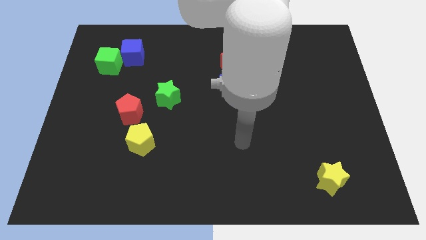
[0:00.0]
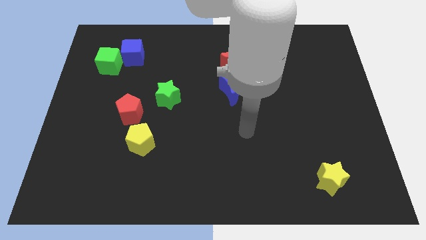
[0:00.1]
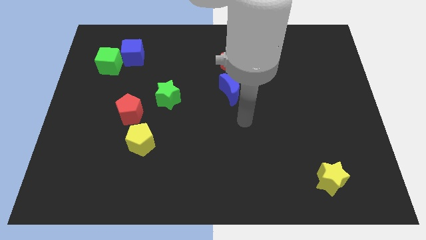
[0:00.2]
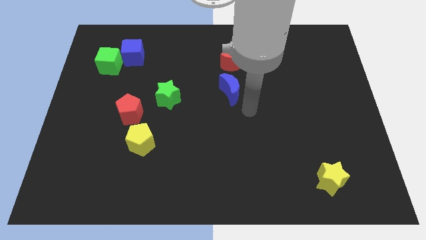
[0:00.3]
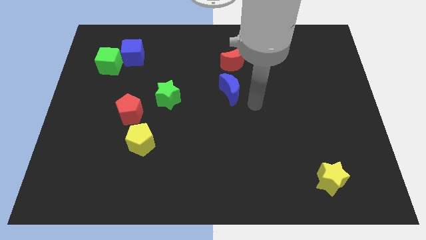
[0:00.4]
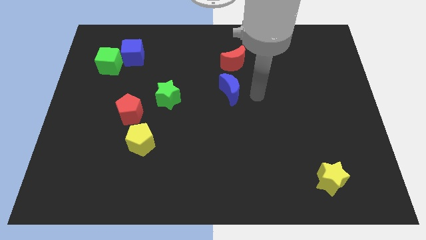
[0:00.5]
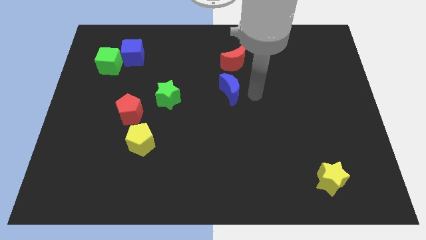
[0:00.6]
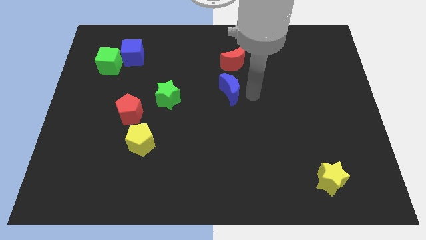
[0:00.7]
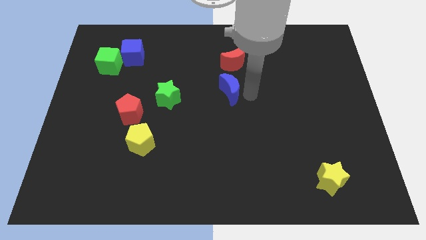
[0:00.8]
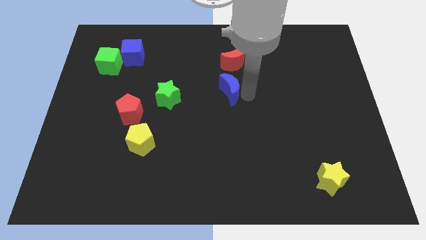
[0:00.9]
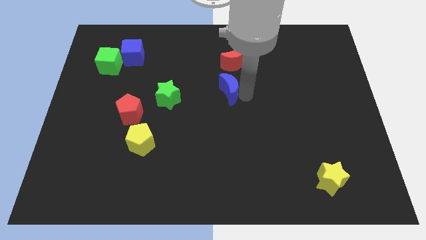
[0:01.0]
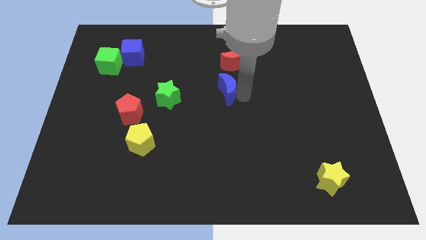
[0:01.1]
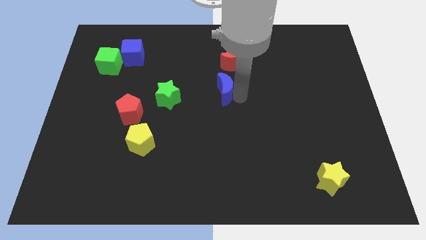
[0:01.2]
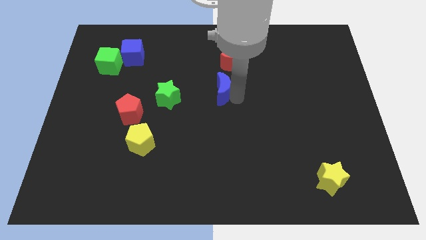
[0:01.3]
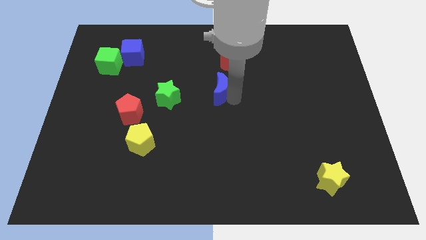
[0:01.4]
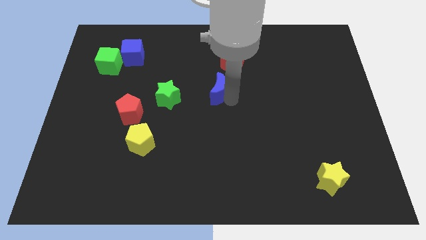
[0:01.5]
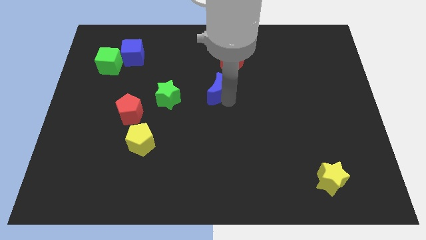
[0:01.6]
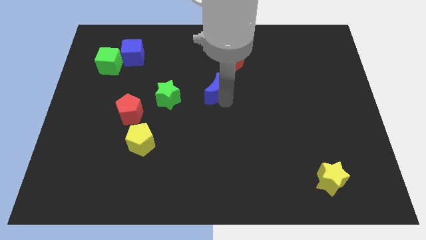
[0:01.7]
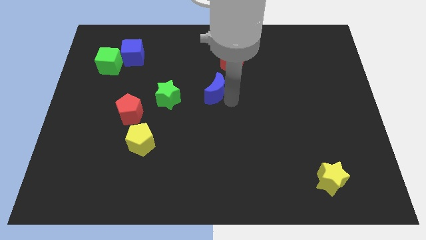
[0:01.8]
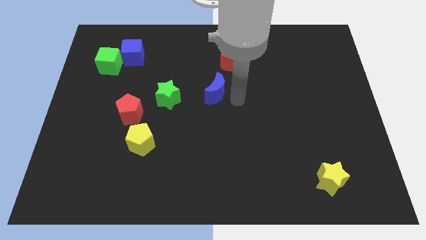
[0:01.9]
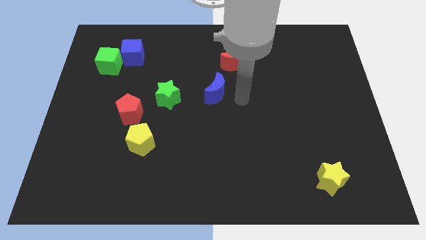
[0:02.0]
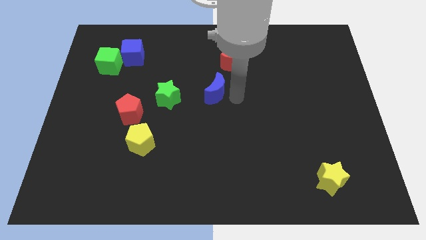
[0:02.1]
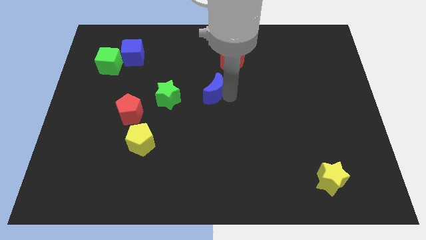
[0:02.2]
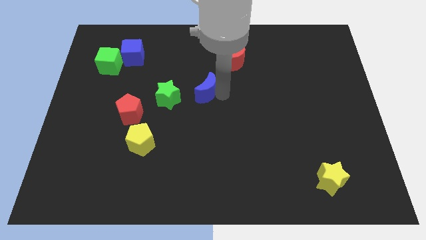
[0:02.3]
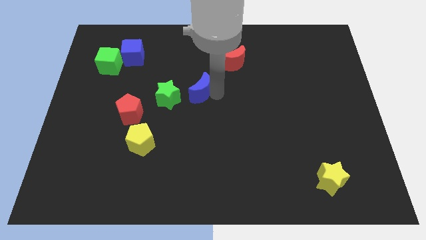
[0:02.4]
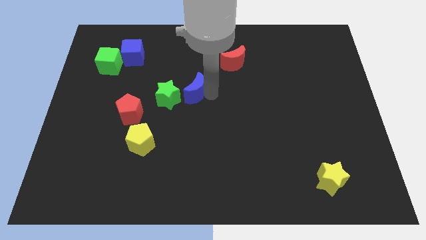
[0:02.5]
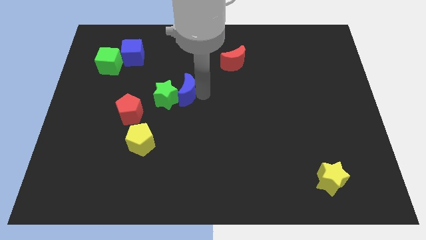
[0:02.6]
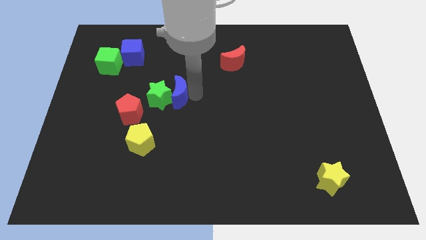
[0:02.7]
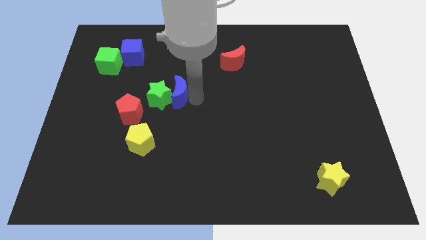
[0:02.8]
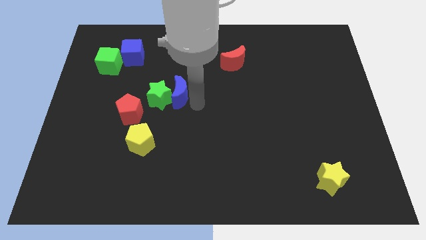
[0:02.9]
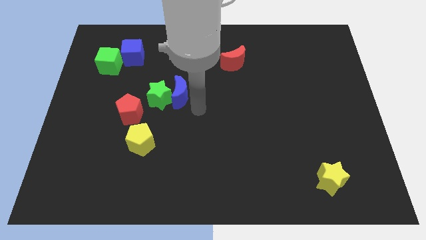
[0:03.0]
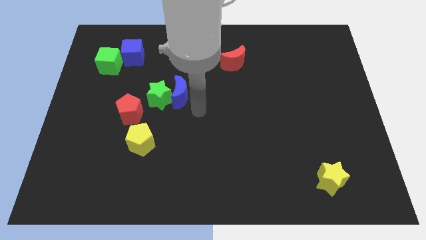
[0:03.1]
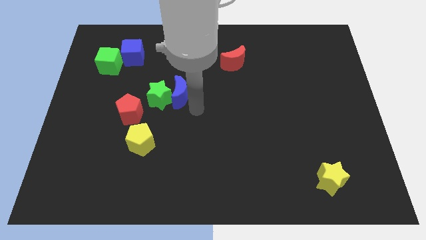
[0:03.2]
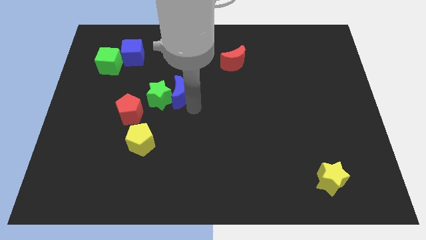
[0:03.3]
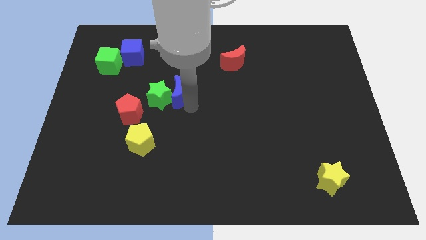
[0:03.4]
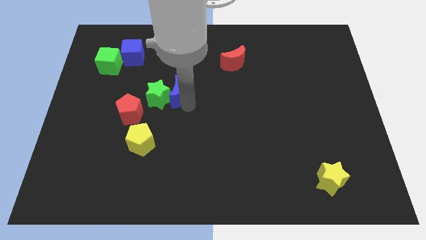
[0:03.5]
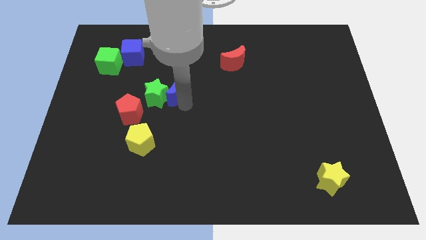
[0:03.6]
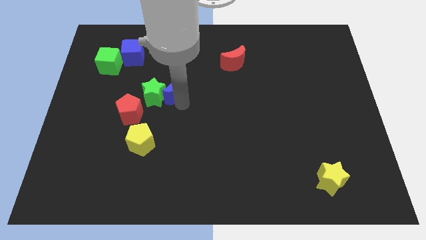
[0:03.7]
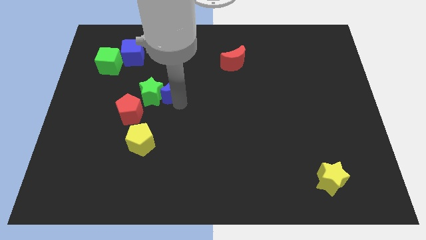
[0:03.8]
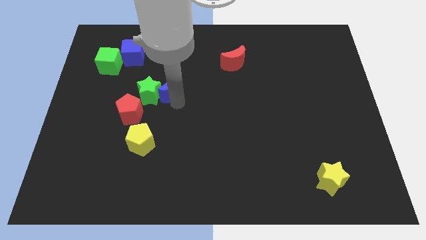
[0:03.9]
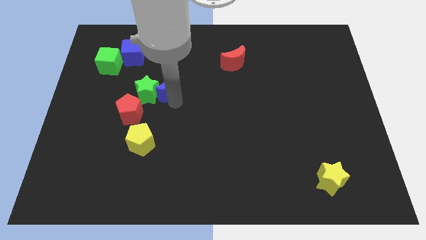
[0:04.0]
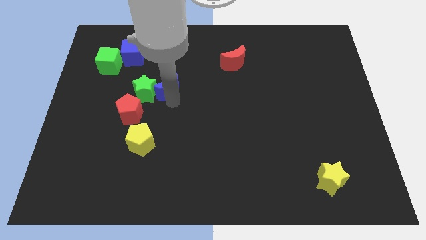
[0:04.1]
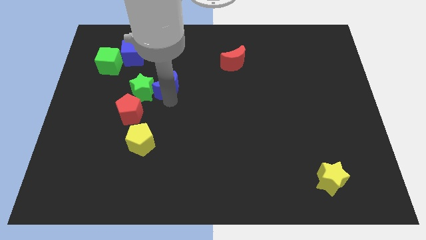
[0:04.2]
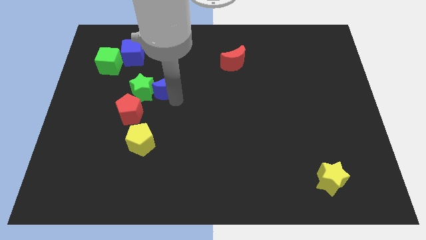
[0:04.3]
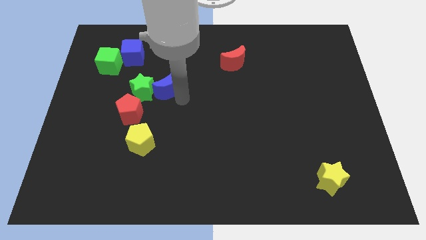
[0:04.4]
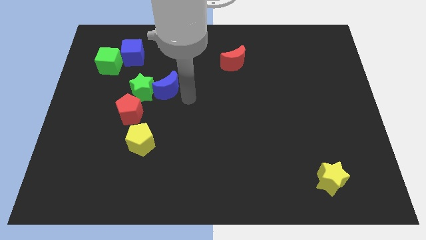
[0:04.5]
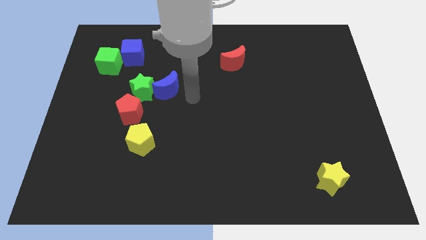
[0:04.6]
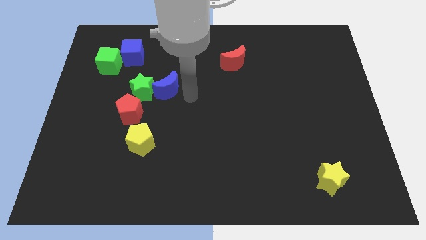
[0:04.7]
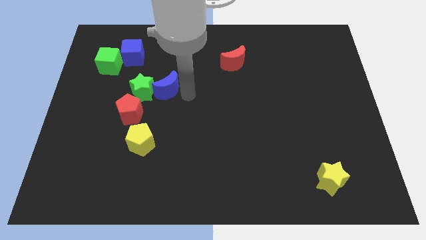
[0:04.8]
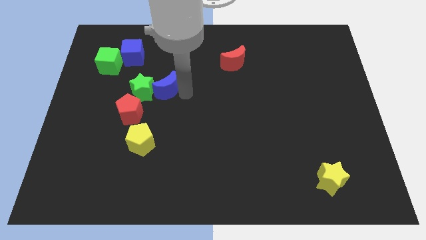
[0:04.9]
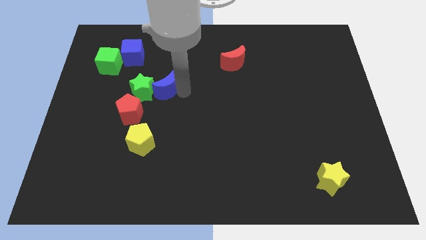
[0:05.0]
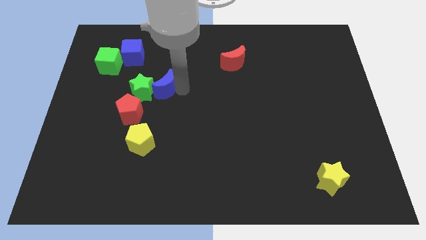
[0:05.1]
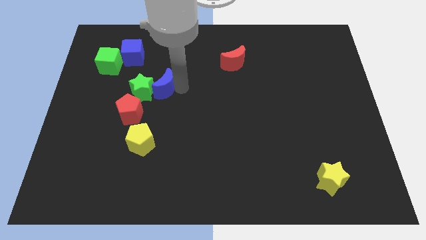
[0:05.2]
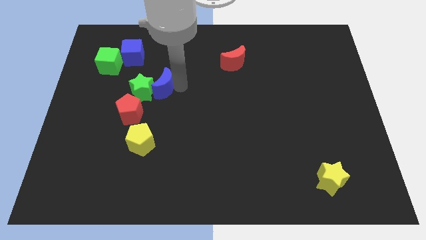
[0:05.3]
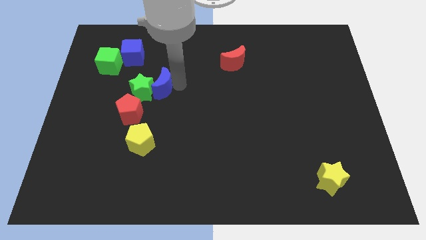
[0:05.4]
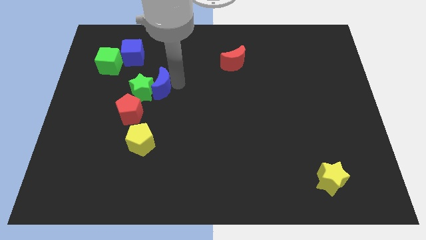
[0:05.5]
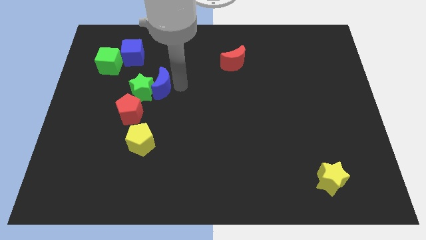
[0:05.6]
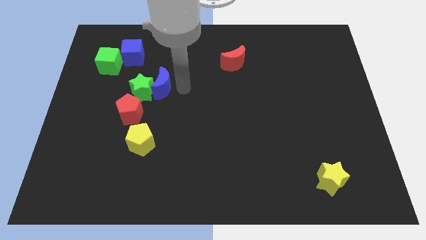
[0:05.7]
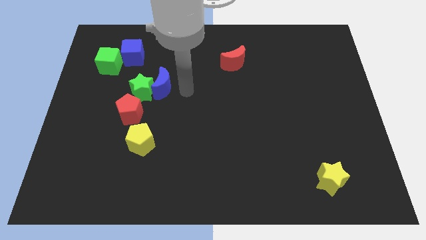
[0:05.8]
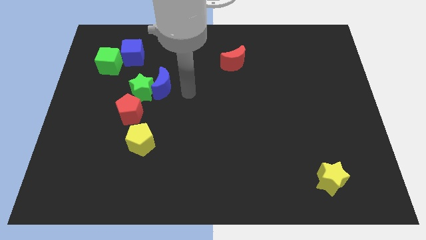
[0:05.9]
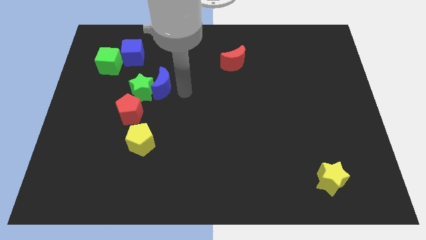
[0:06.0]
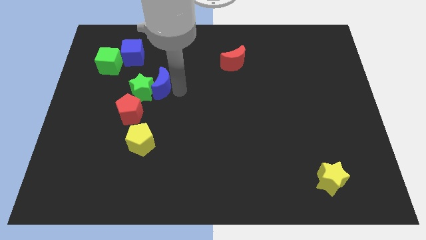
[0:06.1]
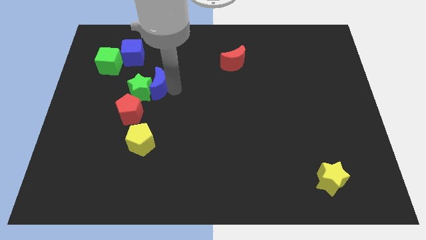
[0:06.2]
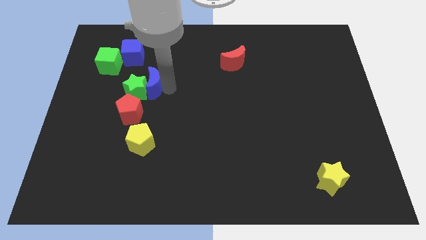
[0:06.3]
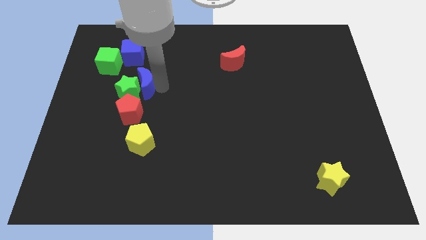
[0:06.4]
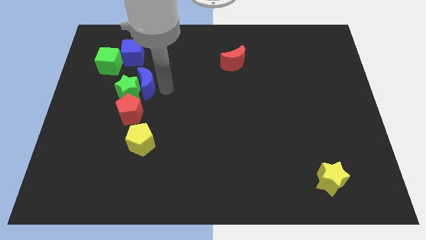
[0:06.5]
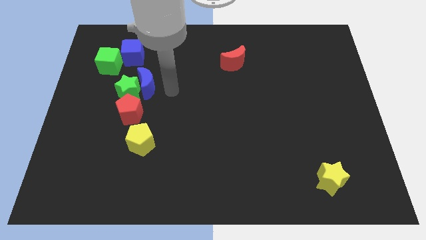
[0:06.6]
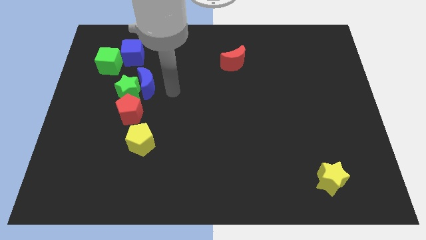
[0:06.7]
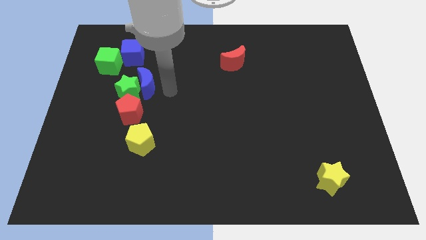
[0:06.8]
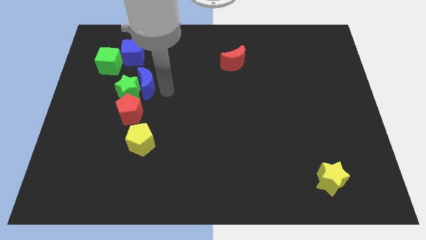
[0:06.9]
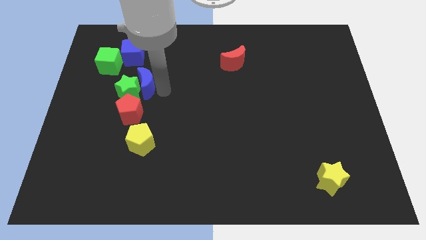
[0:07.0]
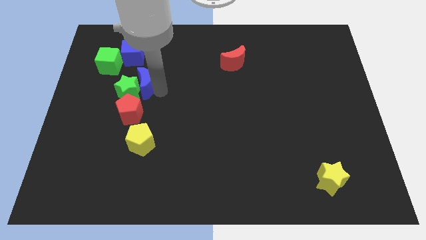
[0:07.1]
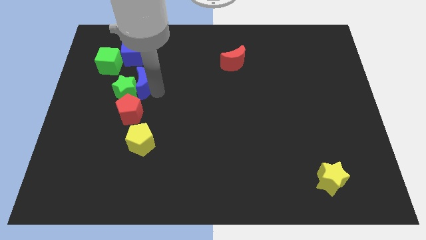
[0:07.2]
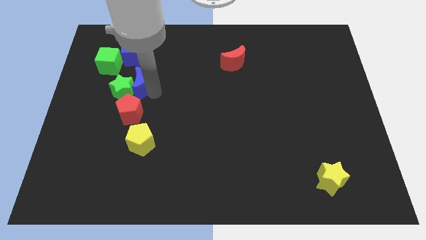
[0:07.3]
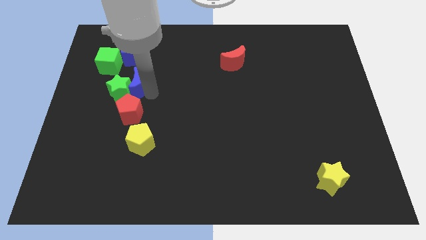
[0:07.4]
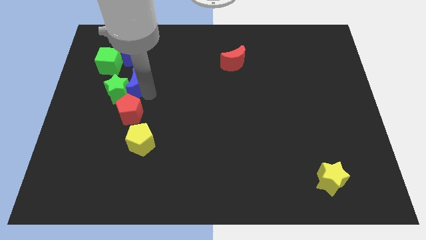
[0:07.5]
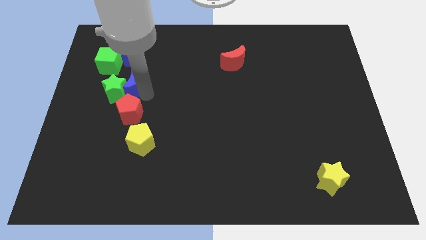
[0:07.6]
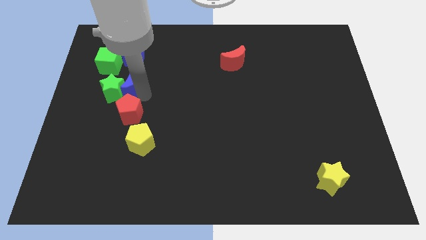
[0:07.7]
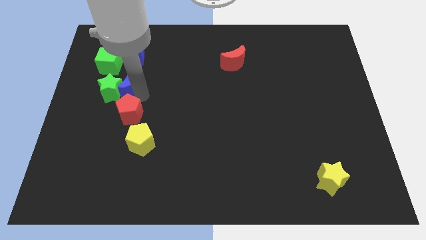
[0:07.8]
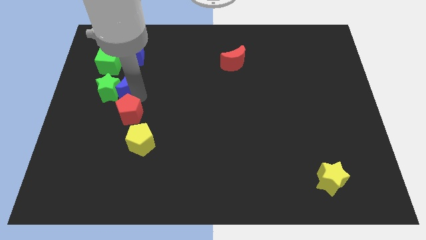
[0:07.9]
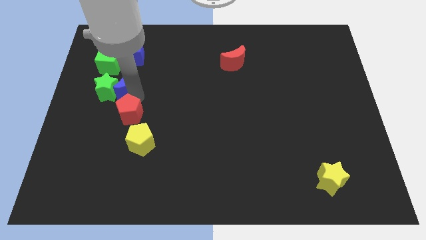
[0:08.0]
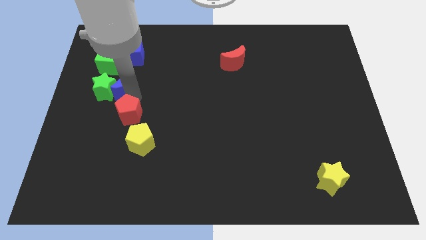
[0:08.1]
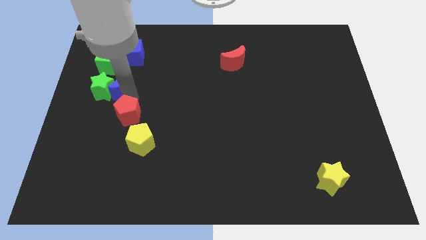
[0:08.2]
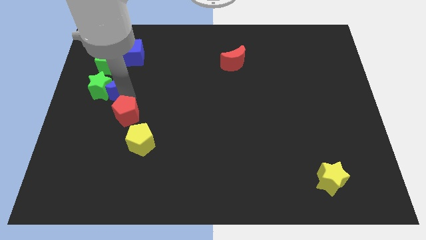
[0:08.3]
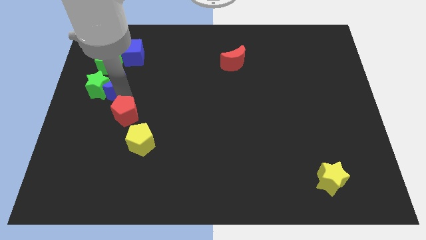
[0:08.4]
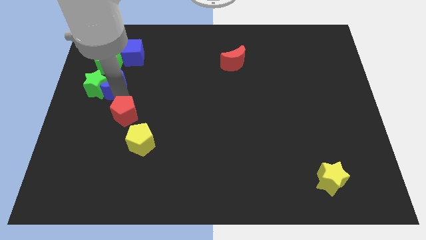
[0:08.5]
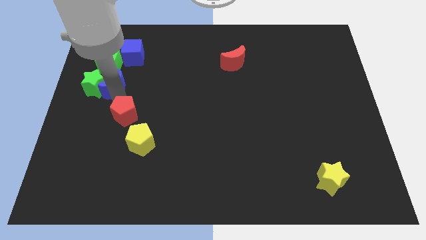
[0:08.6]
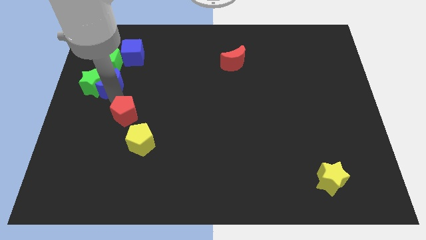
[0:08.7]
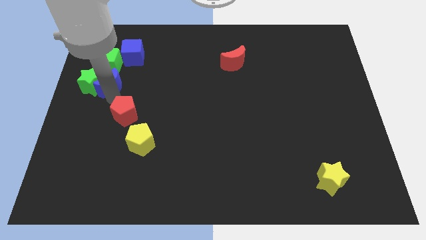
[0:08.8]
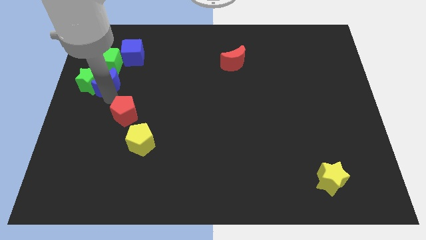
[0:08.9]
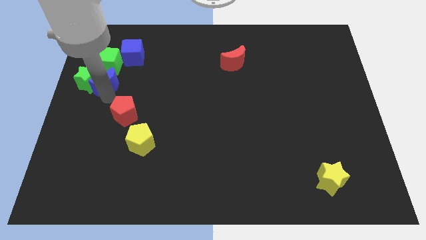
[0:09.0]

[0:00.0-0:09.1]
put the blue moon to the bottom left of the blue cube
